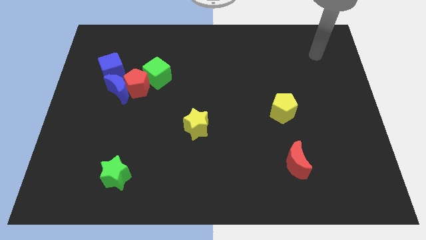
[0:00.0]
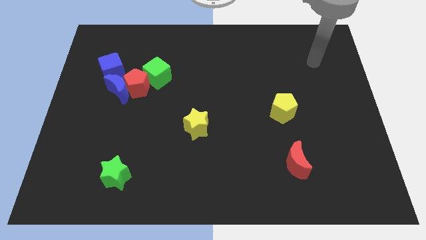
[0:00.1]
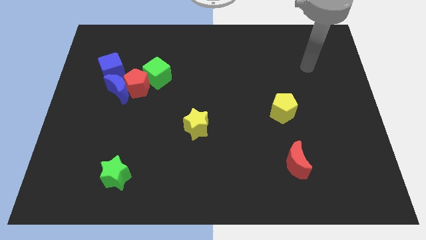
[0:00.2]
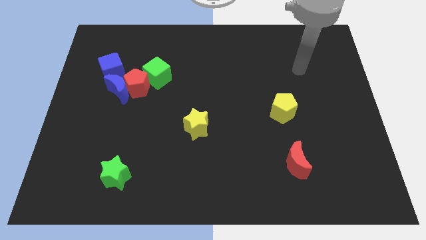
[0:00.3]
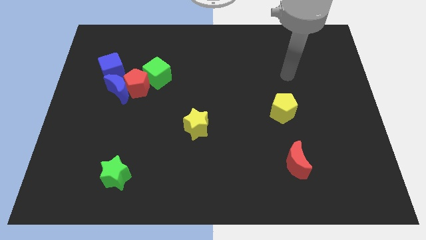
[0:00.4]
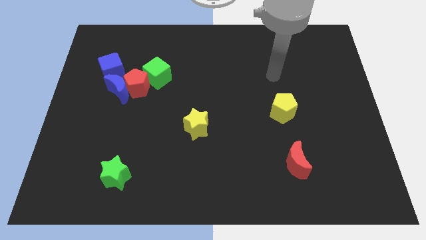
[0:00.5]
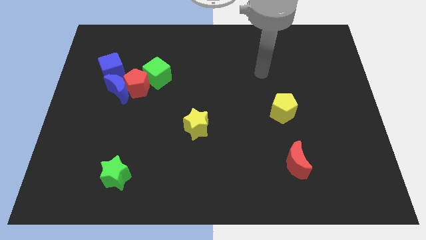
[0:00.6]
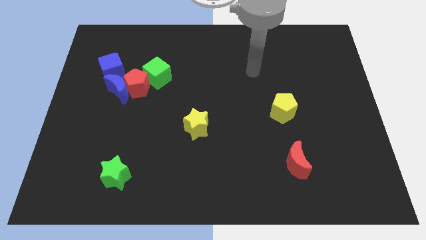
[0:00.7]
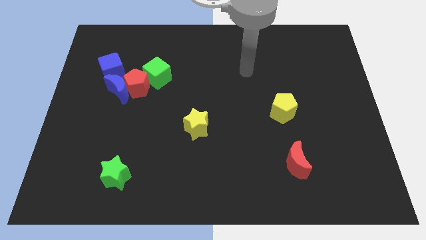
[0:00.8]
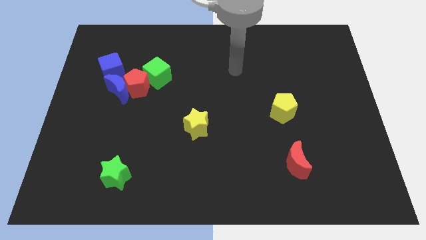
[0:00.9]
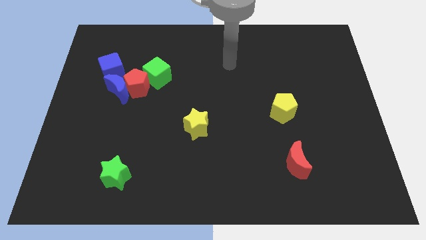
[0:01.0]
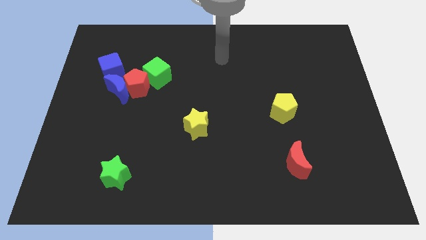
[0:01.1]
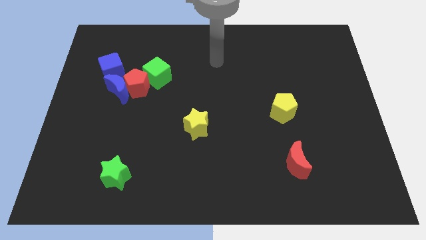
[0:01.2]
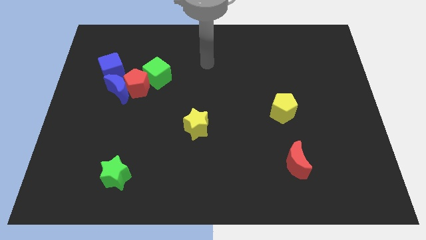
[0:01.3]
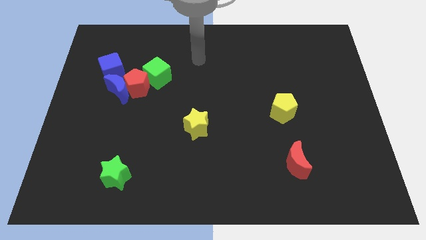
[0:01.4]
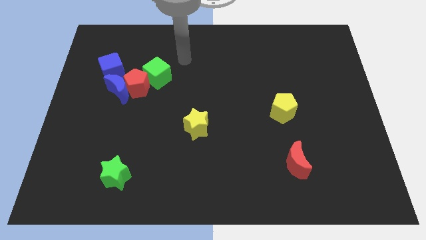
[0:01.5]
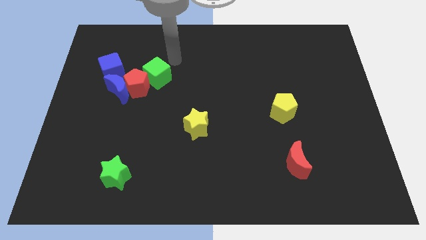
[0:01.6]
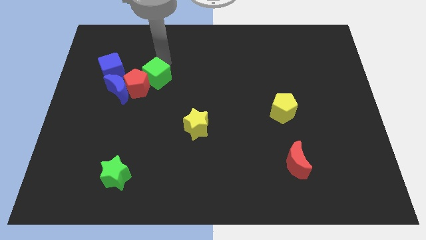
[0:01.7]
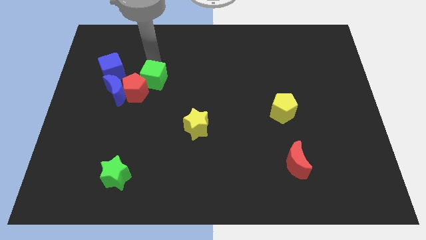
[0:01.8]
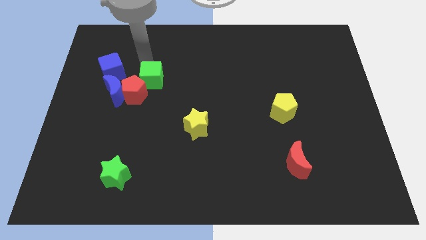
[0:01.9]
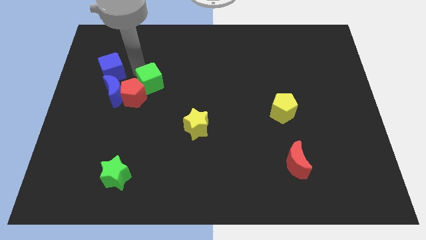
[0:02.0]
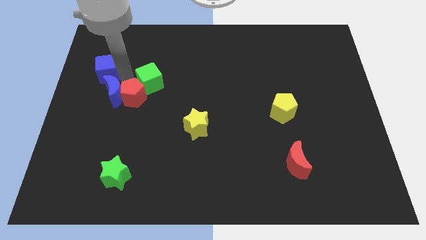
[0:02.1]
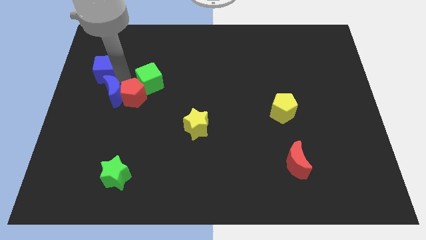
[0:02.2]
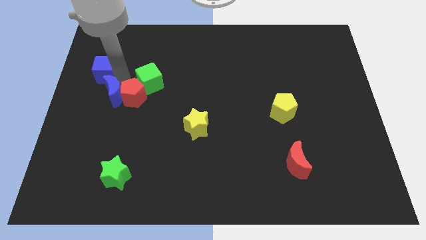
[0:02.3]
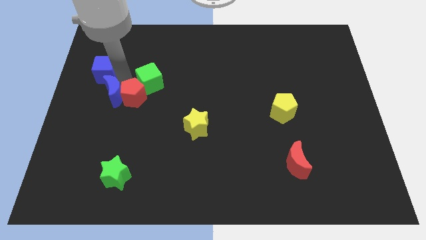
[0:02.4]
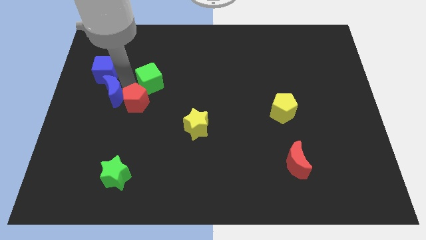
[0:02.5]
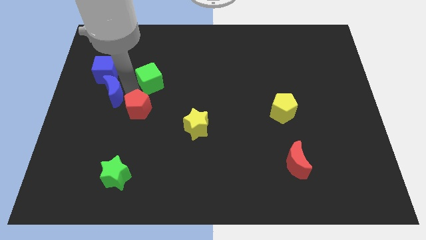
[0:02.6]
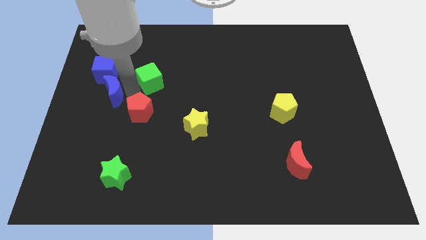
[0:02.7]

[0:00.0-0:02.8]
move the red pentagon away from the blue moon, green cube, and blue cube

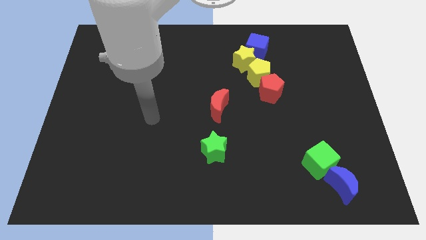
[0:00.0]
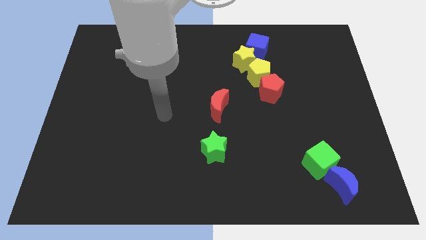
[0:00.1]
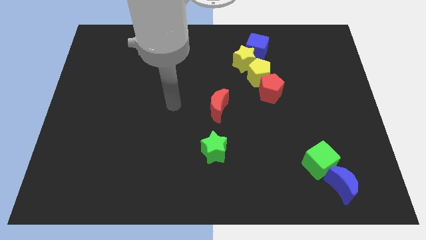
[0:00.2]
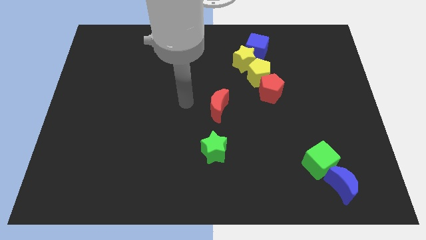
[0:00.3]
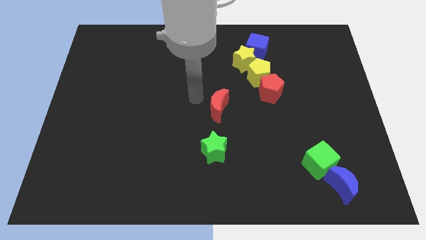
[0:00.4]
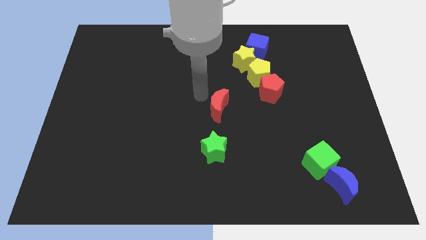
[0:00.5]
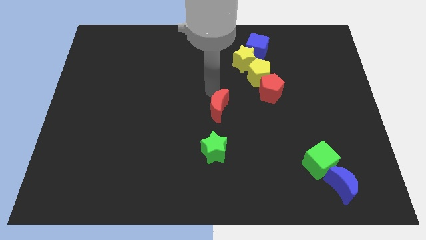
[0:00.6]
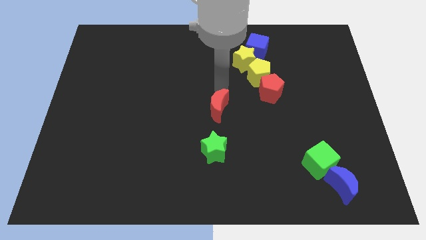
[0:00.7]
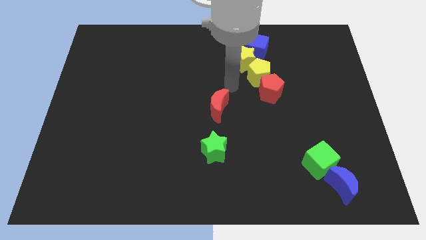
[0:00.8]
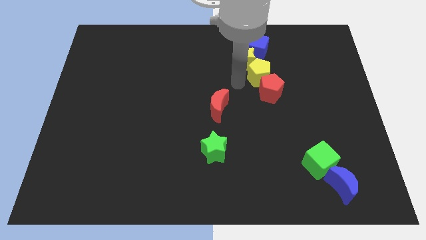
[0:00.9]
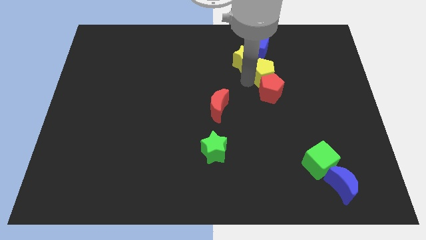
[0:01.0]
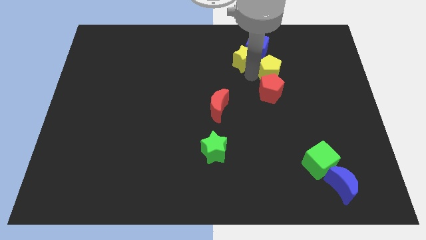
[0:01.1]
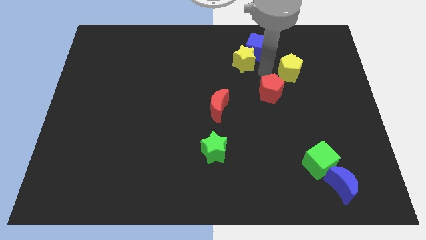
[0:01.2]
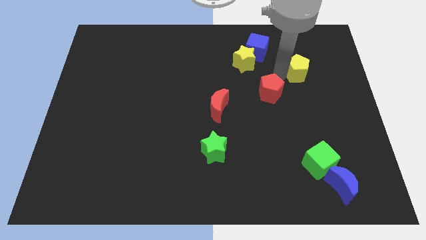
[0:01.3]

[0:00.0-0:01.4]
pull the red pentagon apart from the yellow pentagon

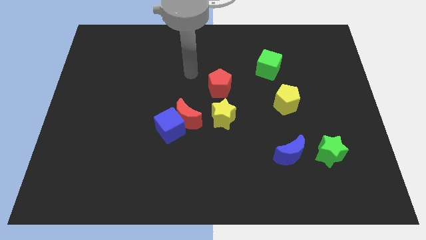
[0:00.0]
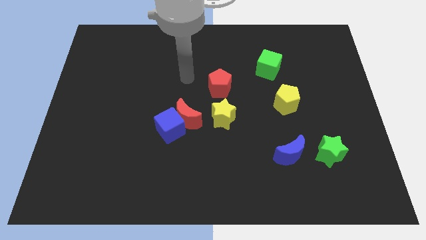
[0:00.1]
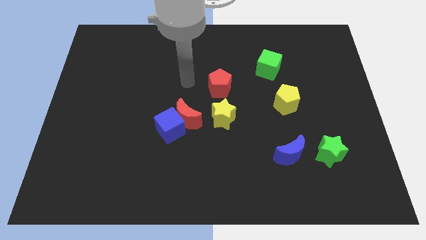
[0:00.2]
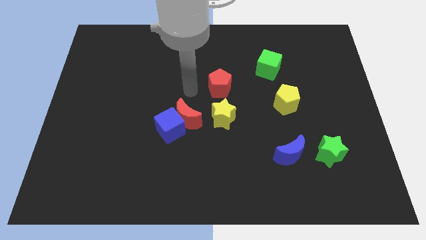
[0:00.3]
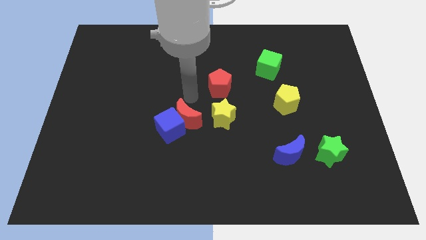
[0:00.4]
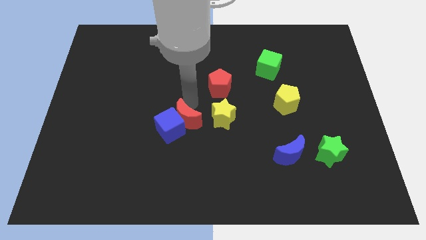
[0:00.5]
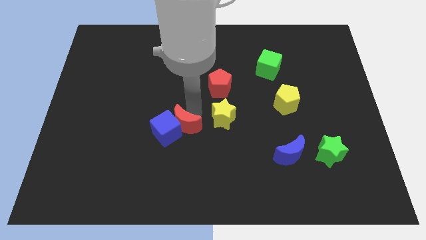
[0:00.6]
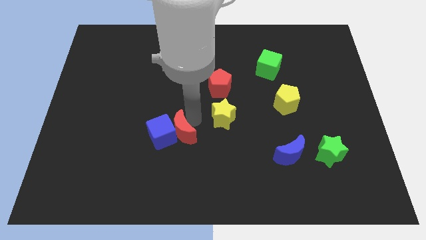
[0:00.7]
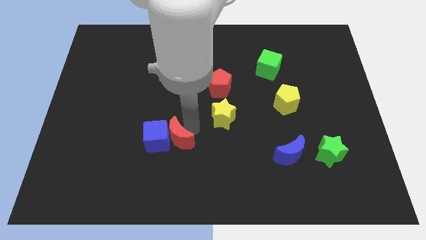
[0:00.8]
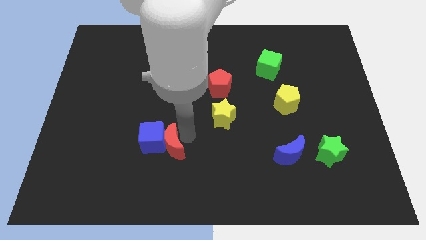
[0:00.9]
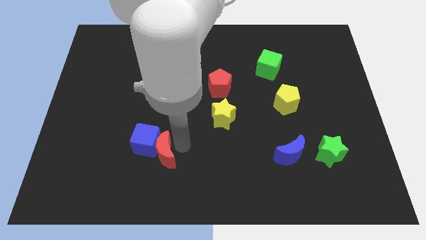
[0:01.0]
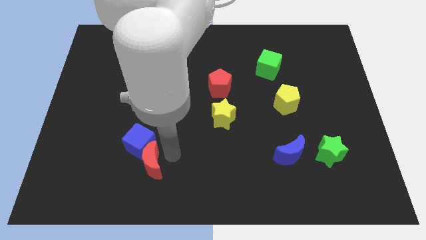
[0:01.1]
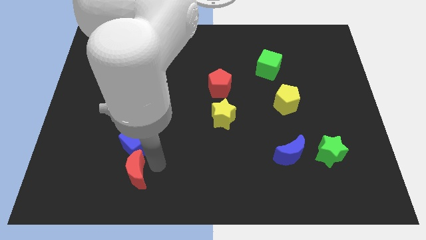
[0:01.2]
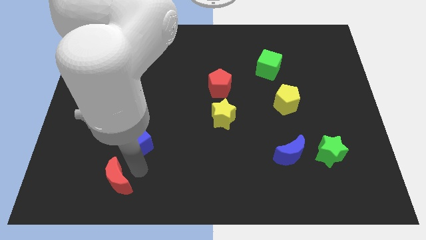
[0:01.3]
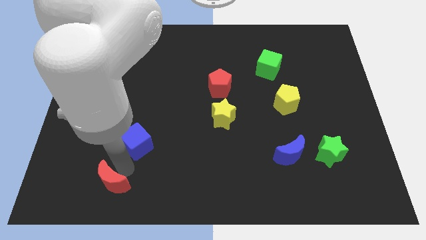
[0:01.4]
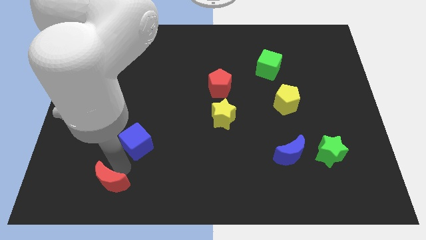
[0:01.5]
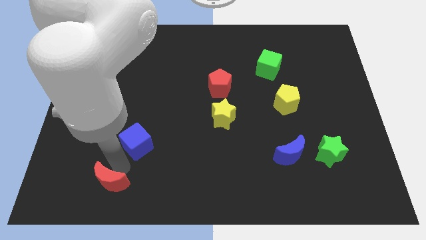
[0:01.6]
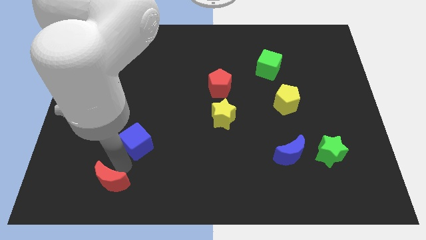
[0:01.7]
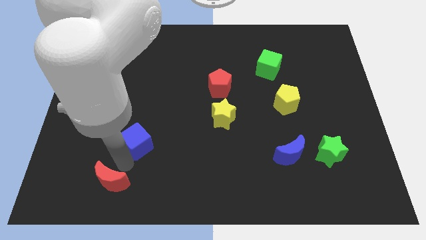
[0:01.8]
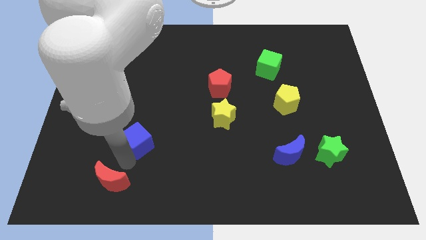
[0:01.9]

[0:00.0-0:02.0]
pull the blue cube apart from the red moon

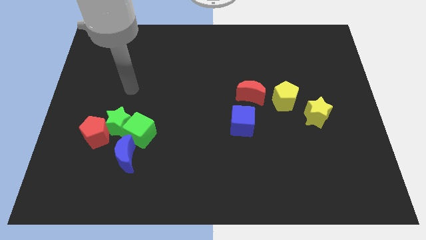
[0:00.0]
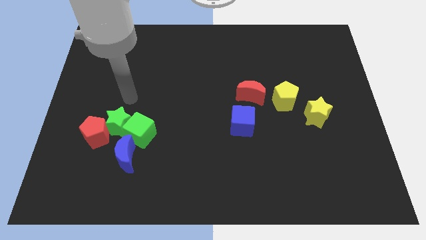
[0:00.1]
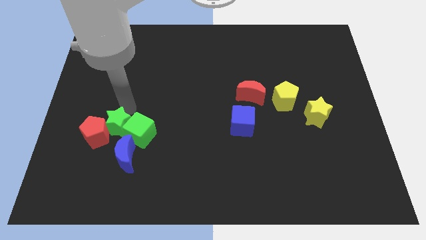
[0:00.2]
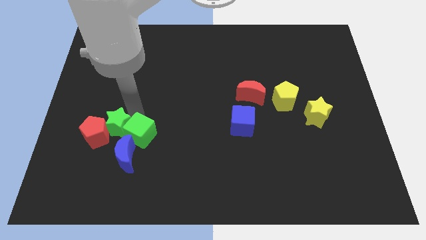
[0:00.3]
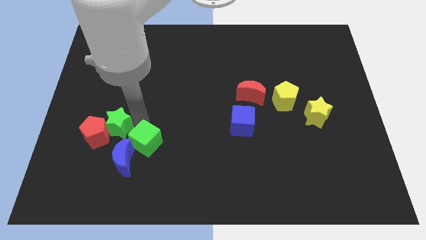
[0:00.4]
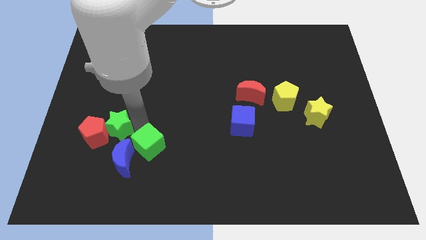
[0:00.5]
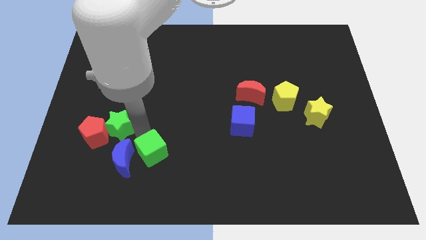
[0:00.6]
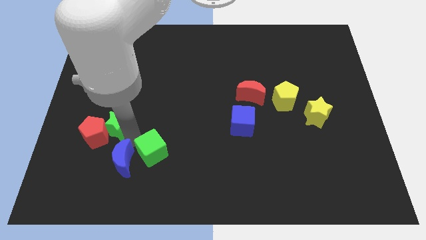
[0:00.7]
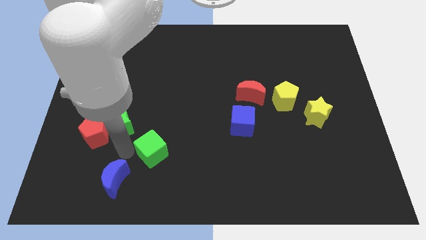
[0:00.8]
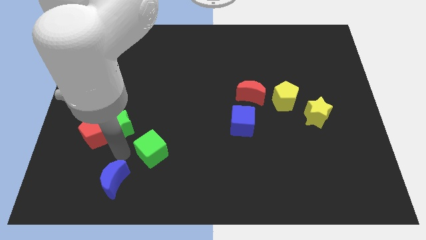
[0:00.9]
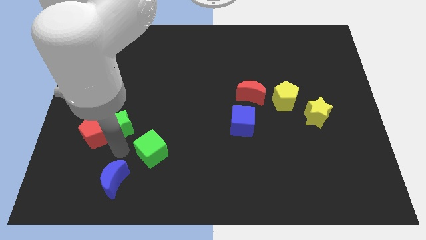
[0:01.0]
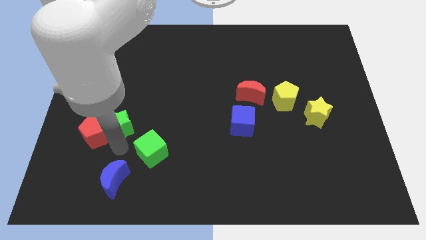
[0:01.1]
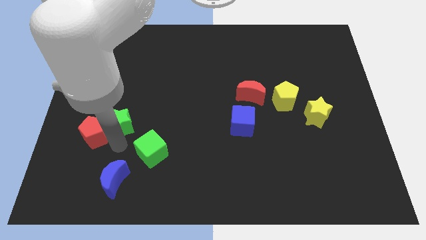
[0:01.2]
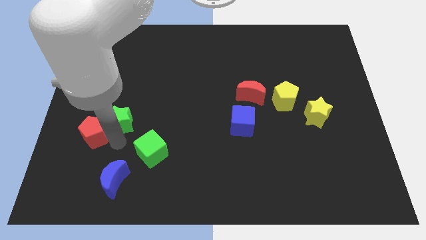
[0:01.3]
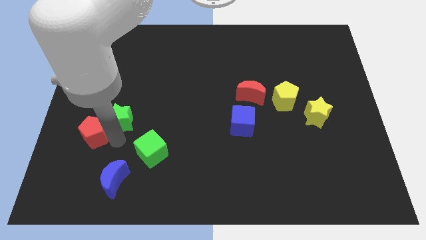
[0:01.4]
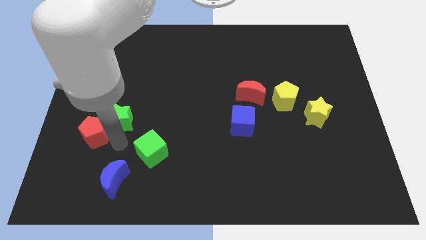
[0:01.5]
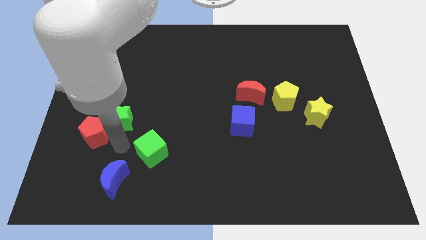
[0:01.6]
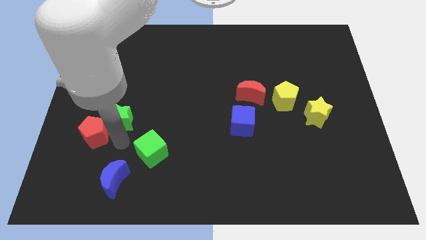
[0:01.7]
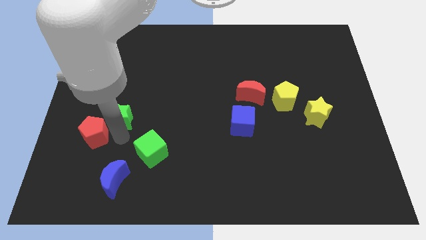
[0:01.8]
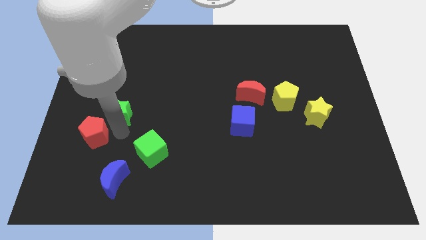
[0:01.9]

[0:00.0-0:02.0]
separate the green star from the group of blocks

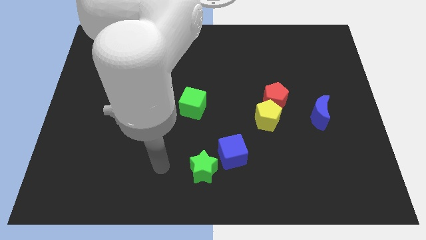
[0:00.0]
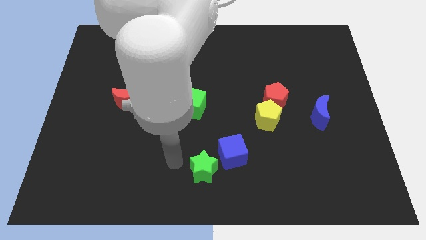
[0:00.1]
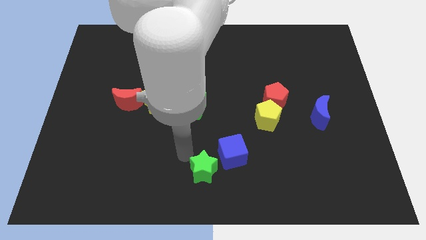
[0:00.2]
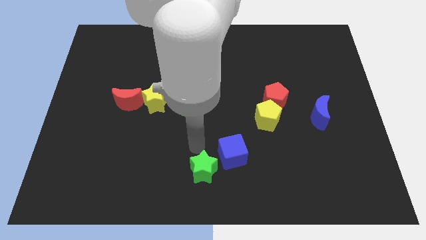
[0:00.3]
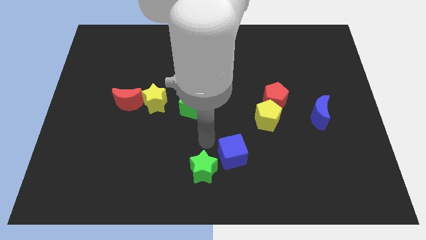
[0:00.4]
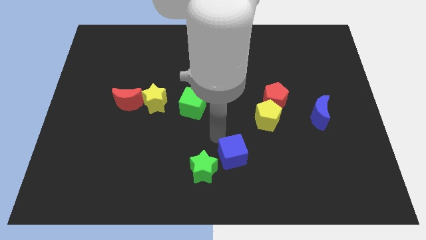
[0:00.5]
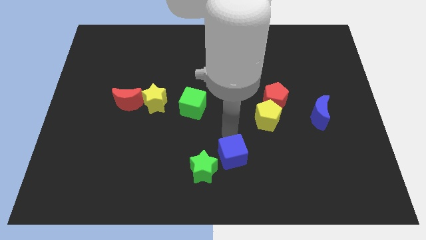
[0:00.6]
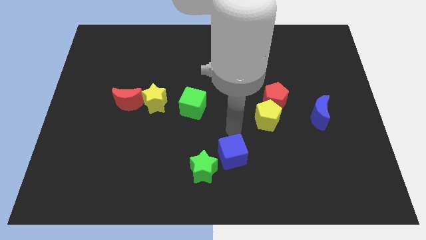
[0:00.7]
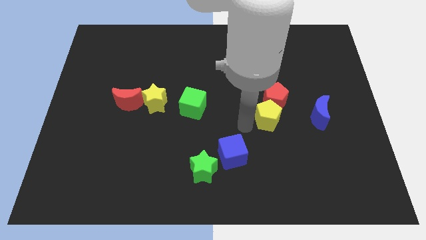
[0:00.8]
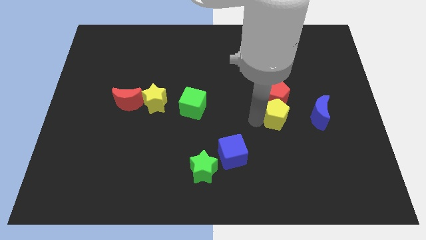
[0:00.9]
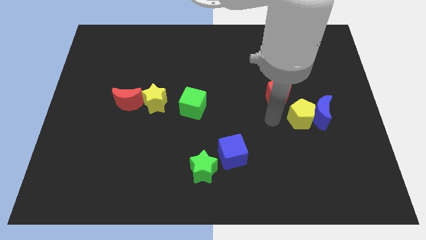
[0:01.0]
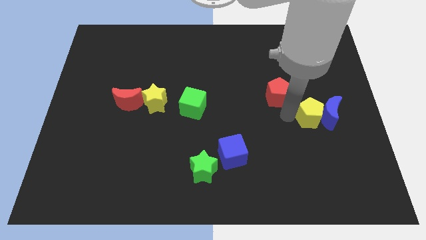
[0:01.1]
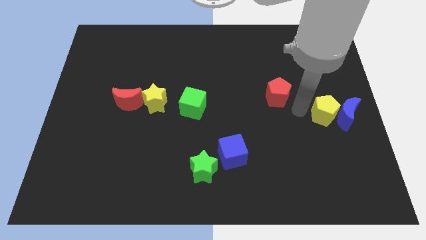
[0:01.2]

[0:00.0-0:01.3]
move the red pentagon away from the yellow pentagon

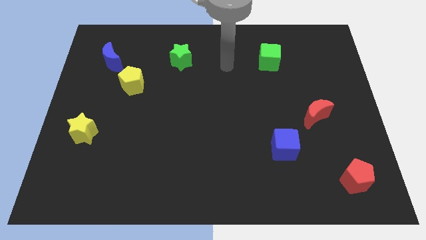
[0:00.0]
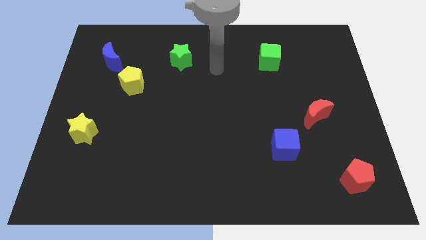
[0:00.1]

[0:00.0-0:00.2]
separate the blue moon from the yellow pentagon
